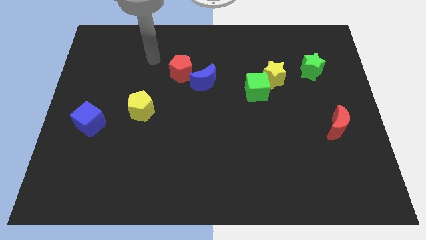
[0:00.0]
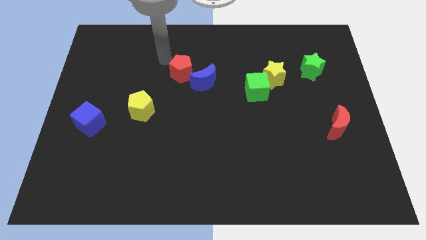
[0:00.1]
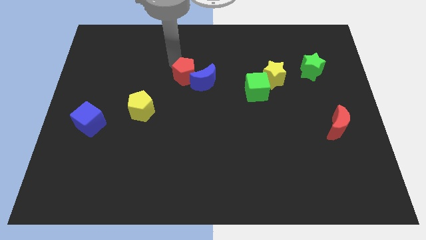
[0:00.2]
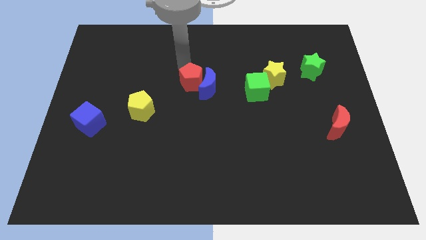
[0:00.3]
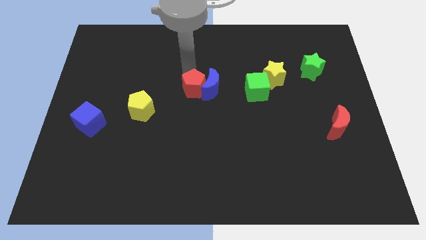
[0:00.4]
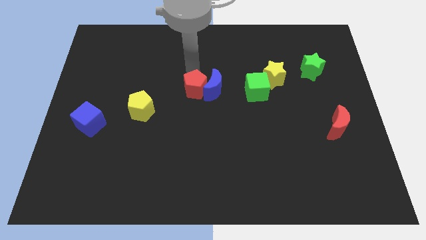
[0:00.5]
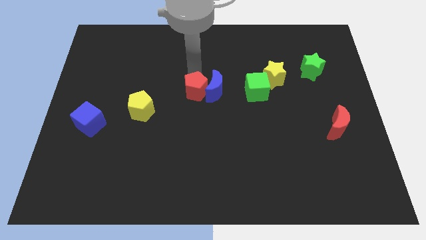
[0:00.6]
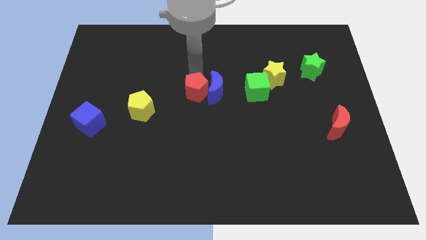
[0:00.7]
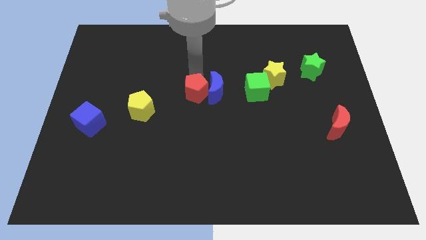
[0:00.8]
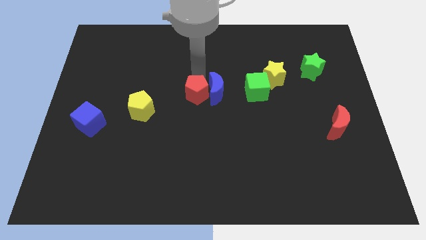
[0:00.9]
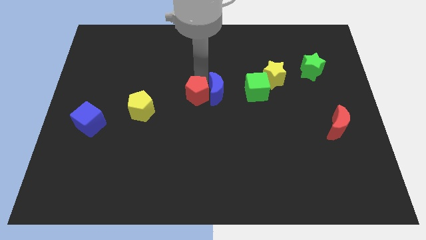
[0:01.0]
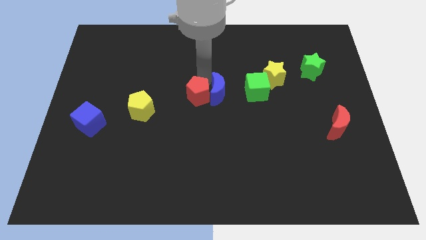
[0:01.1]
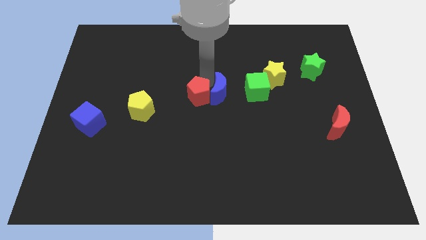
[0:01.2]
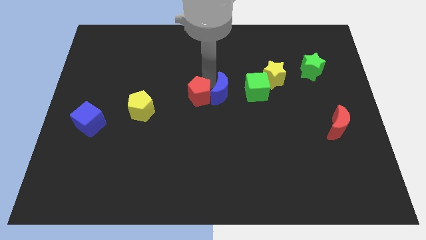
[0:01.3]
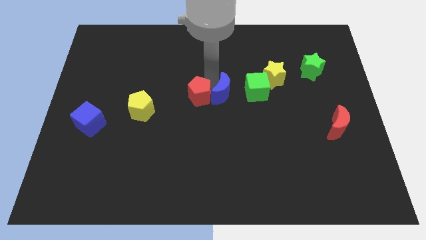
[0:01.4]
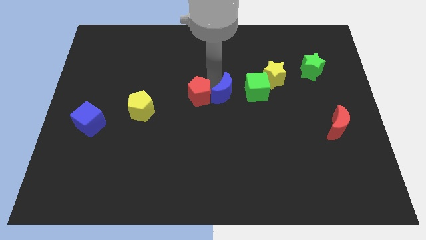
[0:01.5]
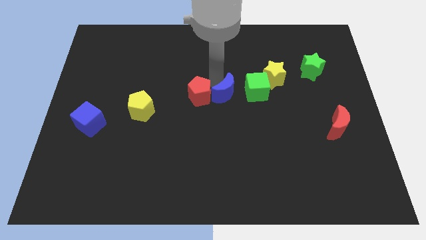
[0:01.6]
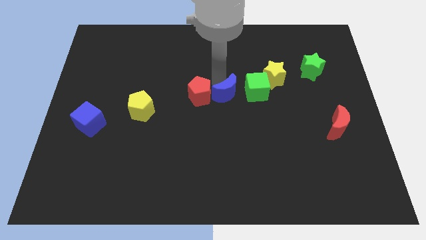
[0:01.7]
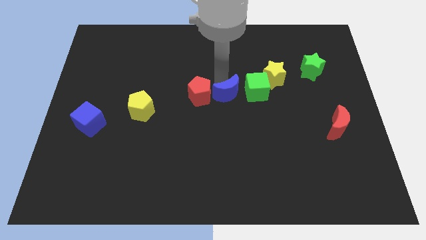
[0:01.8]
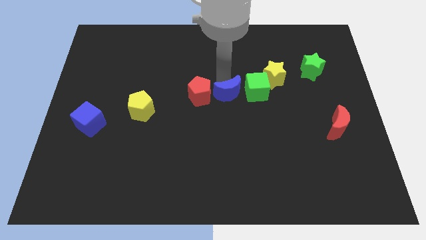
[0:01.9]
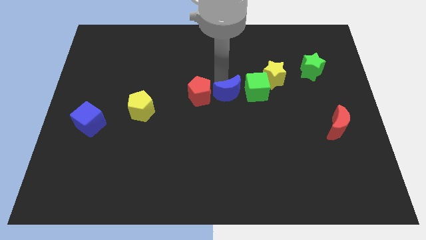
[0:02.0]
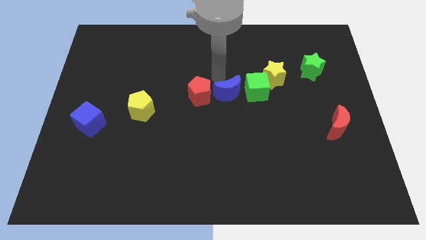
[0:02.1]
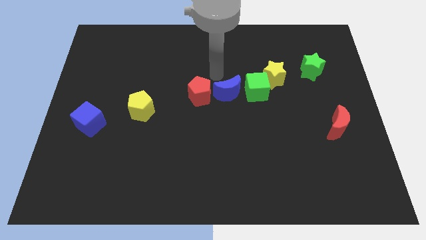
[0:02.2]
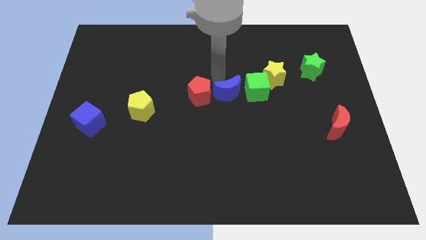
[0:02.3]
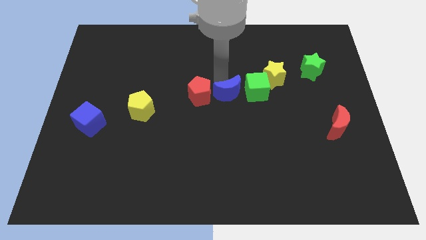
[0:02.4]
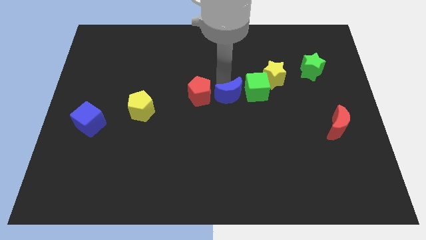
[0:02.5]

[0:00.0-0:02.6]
slightly push the blue moon diagonally downwards and to the right

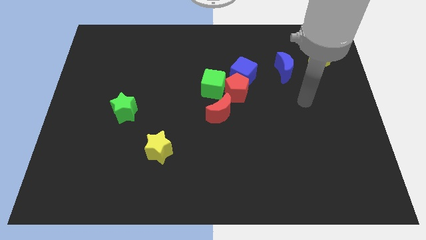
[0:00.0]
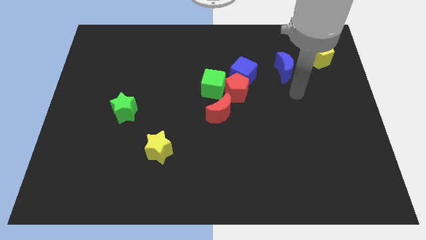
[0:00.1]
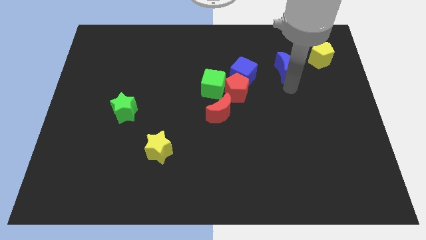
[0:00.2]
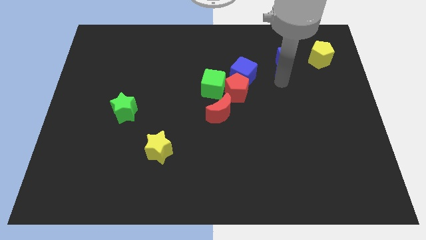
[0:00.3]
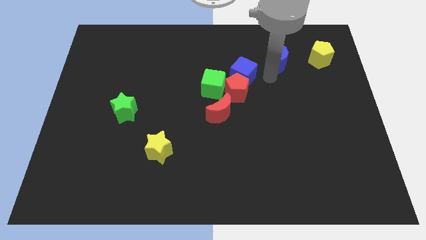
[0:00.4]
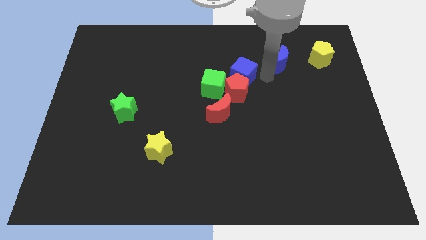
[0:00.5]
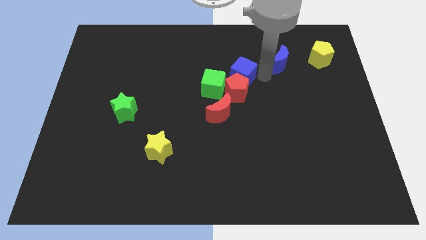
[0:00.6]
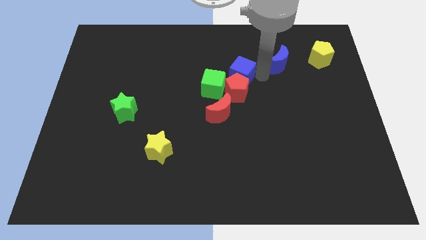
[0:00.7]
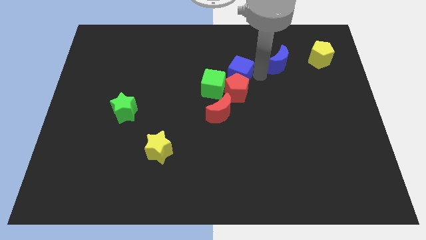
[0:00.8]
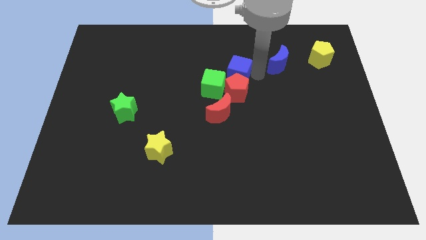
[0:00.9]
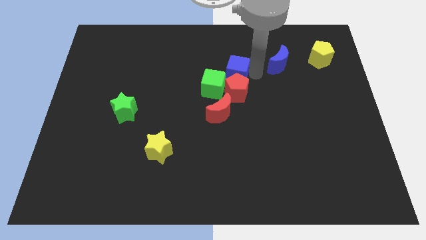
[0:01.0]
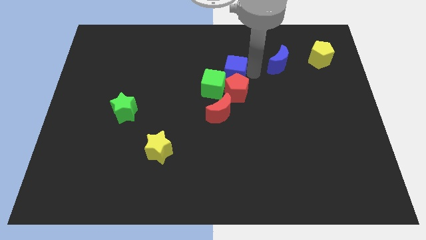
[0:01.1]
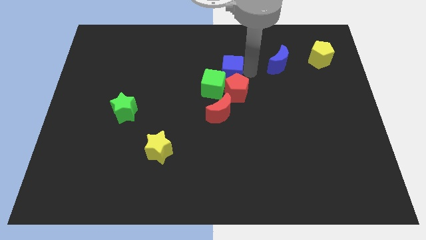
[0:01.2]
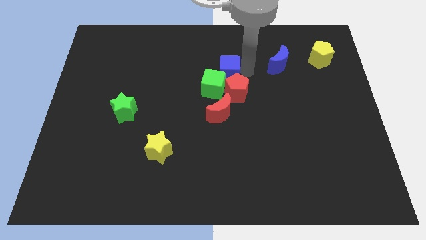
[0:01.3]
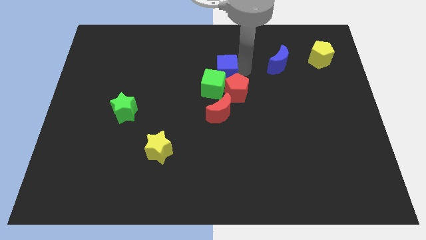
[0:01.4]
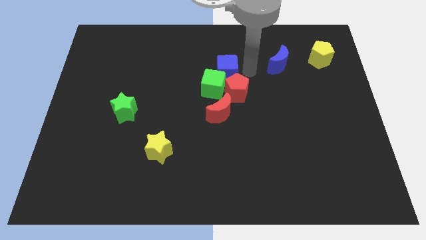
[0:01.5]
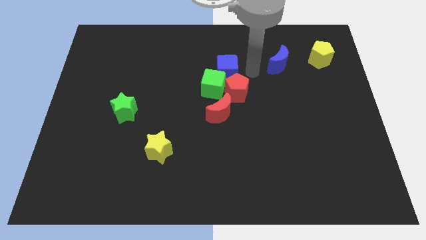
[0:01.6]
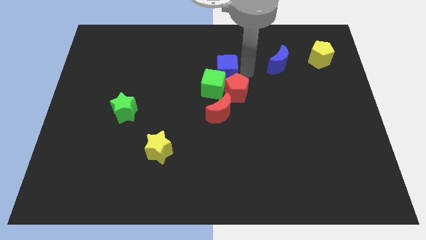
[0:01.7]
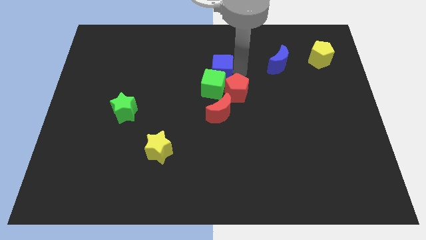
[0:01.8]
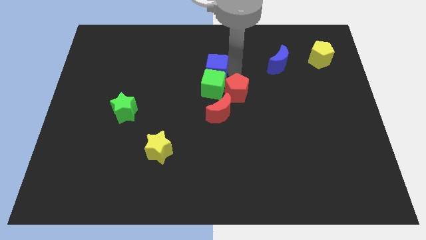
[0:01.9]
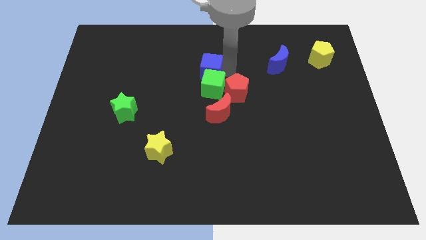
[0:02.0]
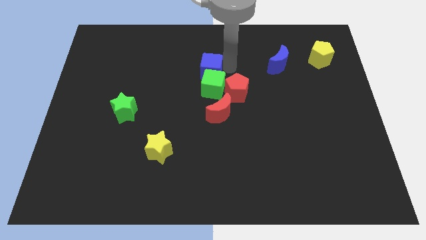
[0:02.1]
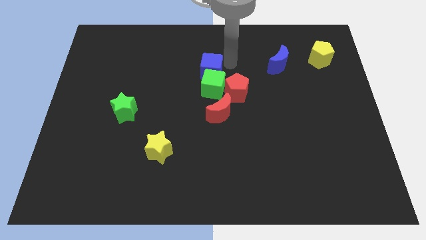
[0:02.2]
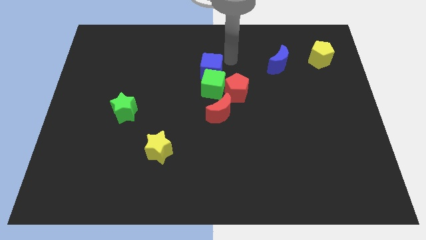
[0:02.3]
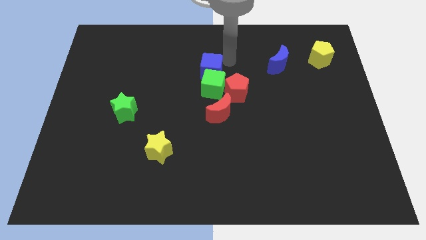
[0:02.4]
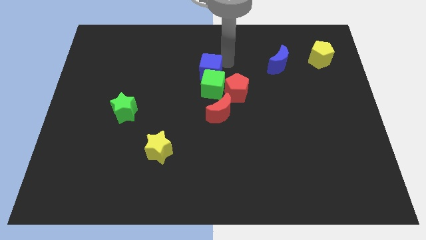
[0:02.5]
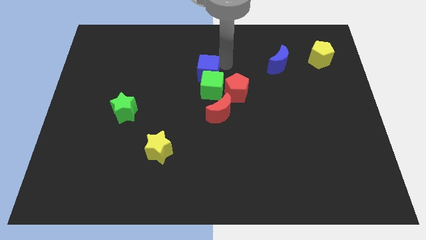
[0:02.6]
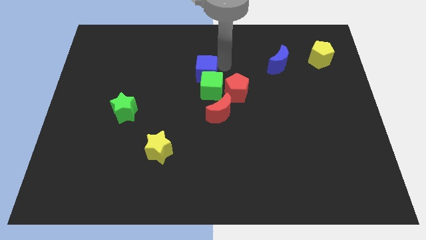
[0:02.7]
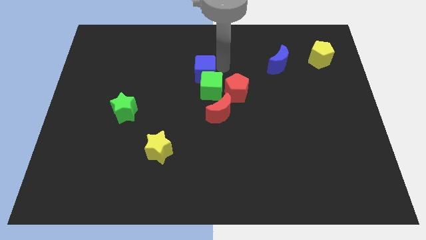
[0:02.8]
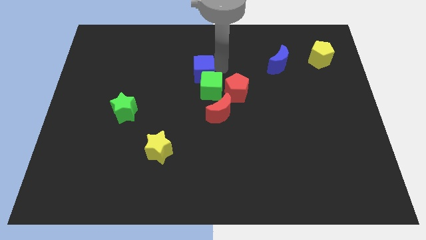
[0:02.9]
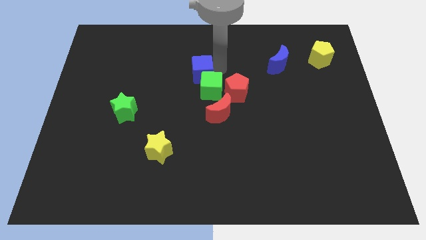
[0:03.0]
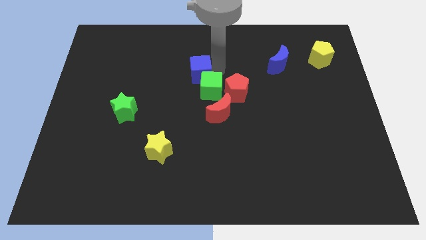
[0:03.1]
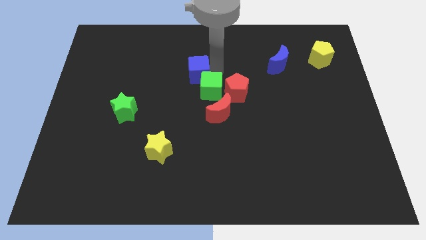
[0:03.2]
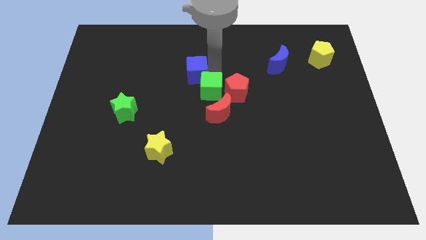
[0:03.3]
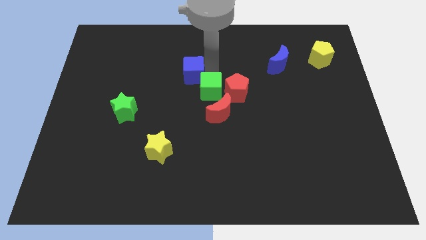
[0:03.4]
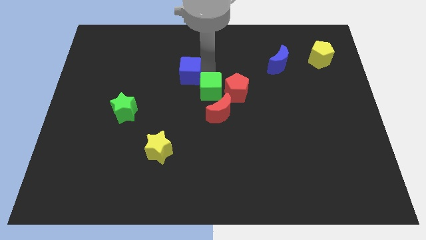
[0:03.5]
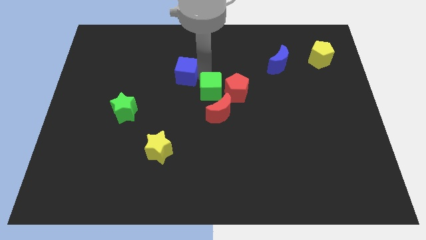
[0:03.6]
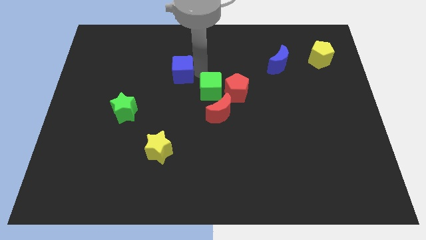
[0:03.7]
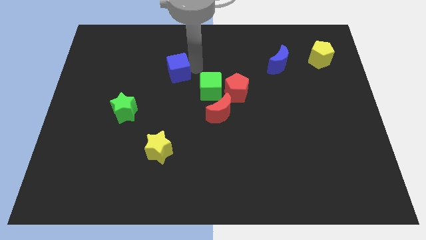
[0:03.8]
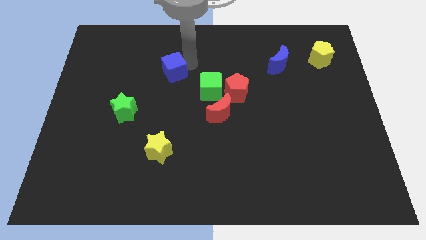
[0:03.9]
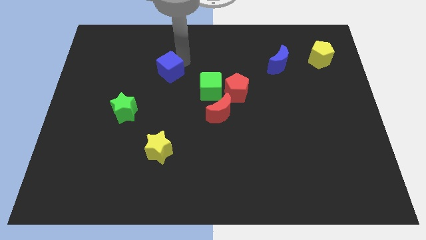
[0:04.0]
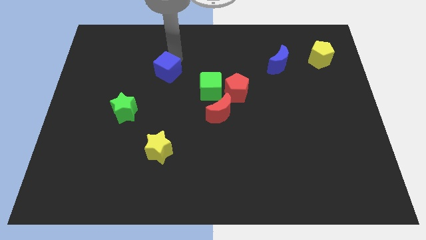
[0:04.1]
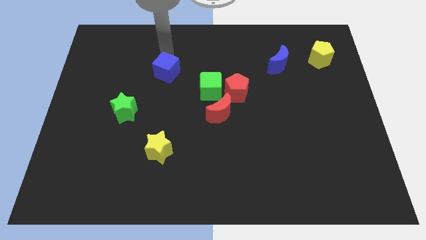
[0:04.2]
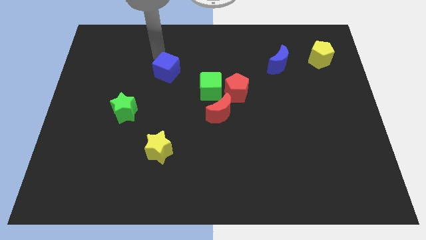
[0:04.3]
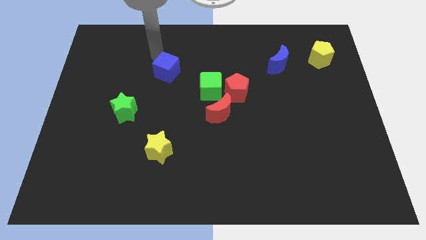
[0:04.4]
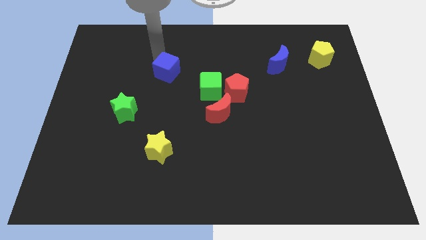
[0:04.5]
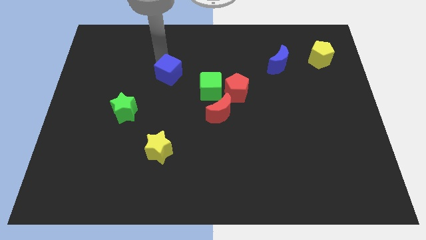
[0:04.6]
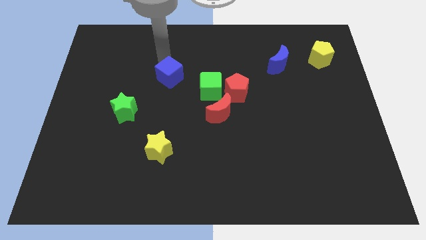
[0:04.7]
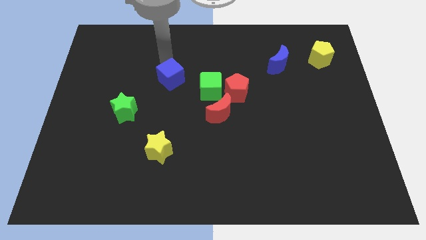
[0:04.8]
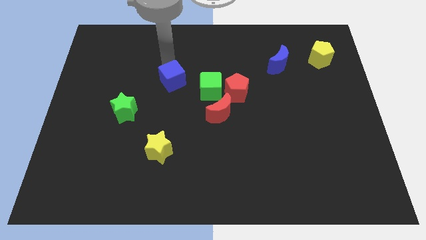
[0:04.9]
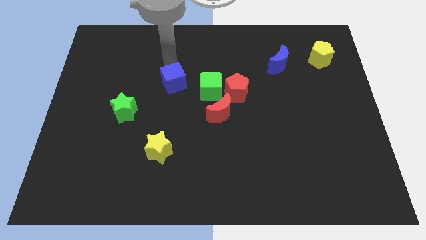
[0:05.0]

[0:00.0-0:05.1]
move the blue cube somewhat down and to the left diagonally

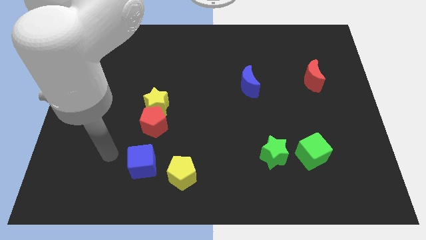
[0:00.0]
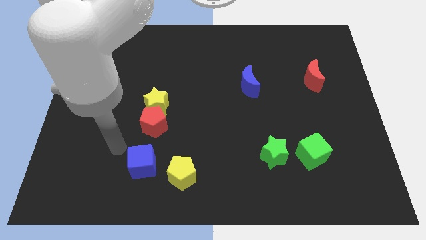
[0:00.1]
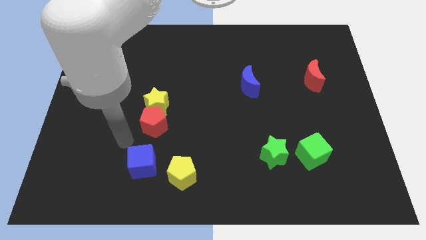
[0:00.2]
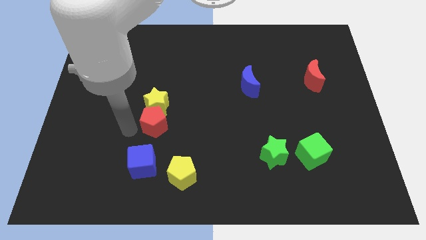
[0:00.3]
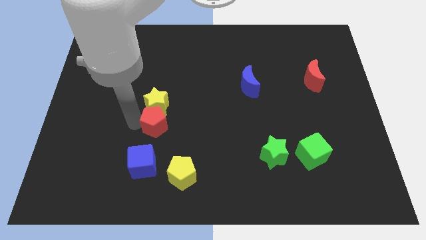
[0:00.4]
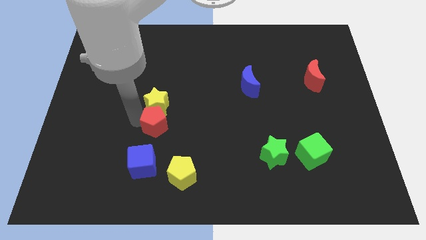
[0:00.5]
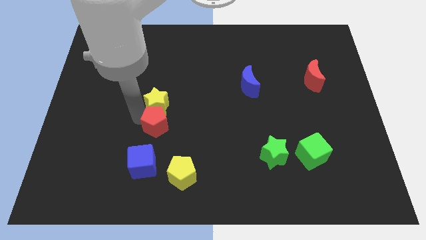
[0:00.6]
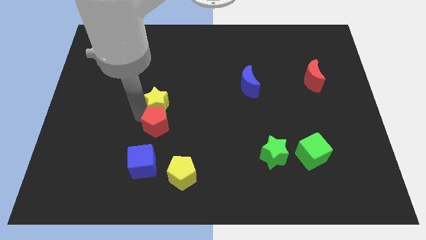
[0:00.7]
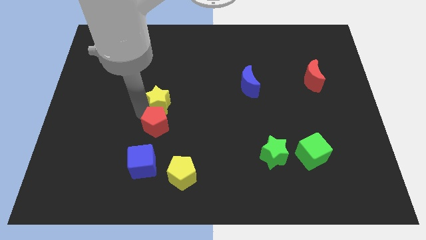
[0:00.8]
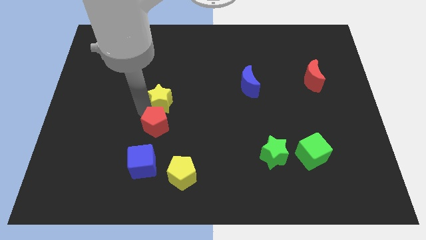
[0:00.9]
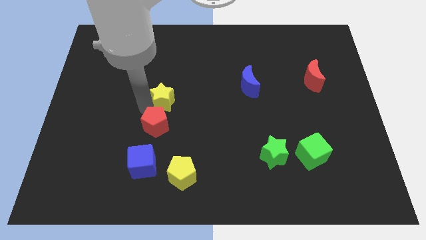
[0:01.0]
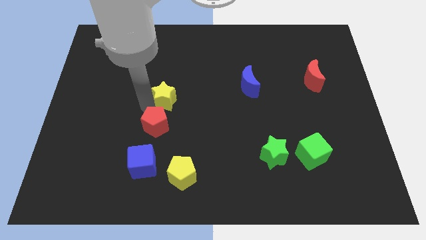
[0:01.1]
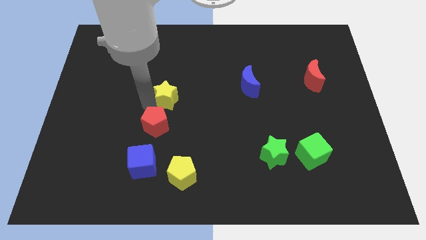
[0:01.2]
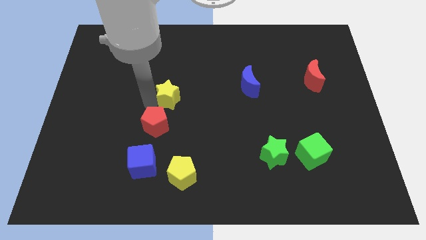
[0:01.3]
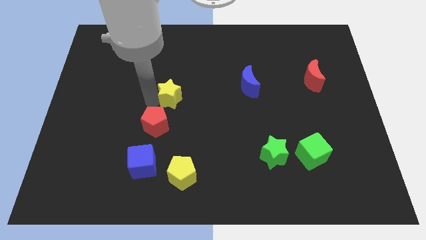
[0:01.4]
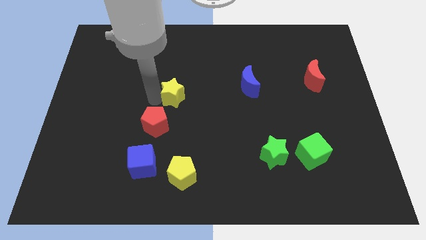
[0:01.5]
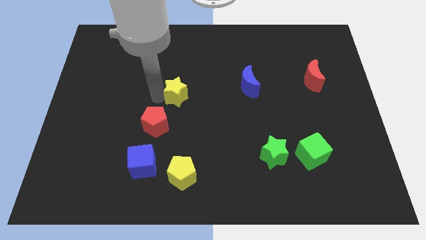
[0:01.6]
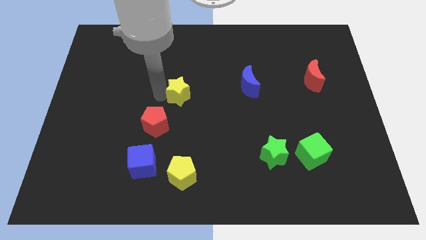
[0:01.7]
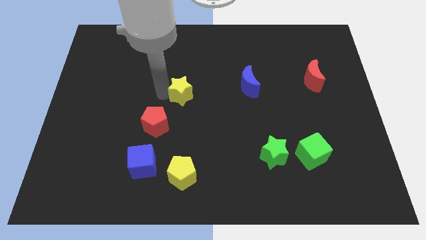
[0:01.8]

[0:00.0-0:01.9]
slide the yellow star diagonally up and to the right a little
